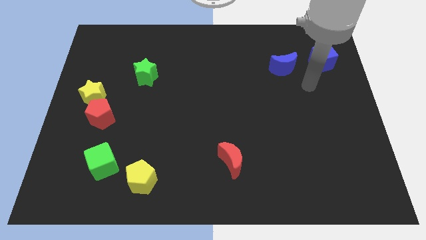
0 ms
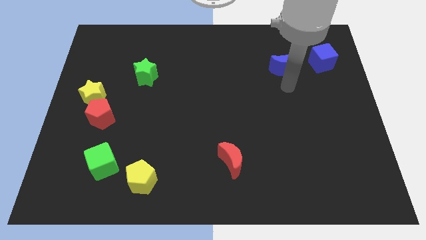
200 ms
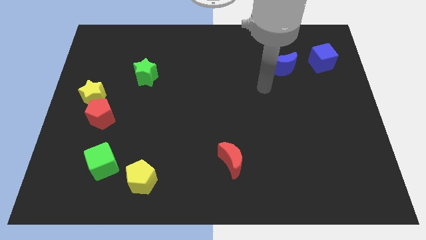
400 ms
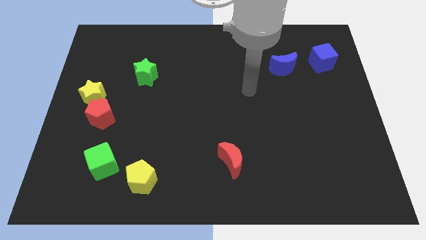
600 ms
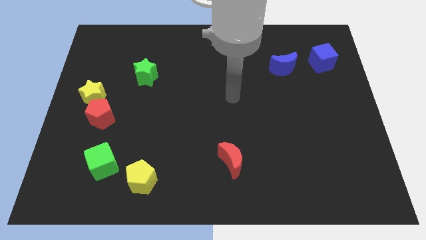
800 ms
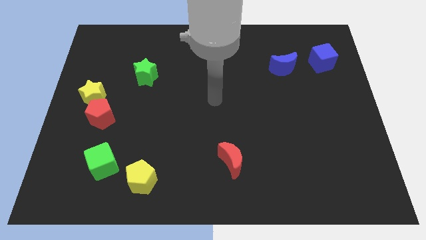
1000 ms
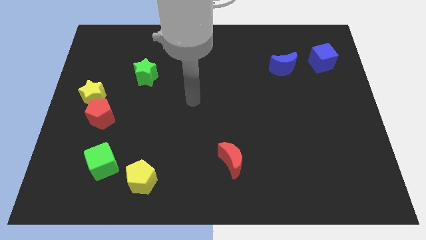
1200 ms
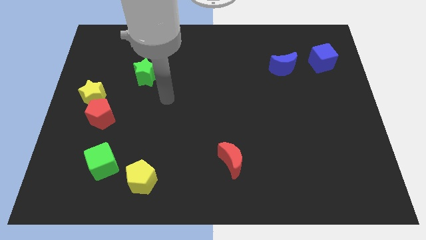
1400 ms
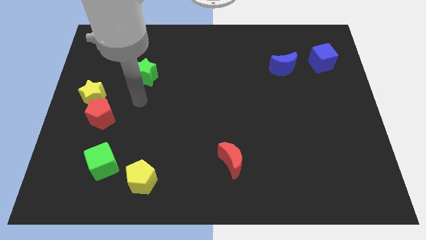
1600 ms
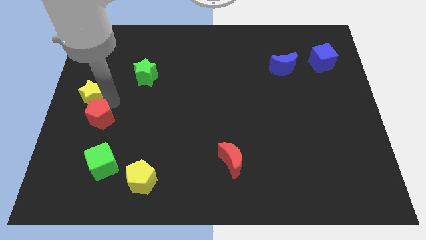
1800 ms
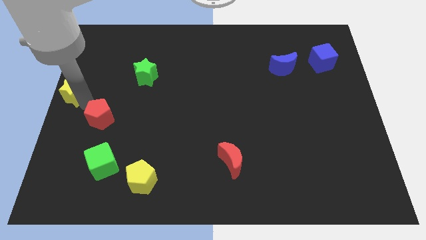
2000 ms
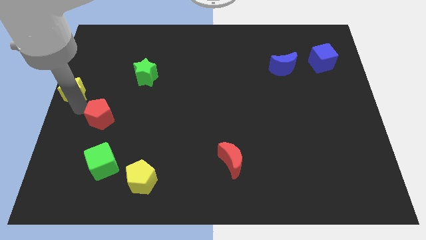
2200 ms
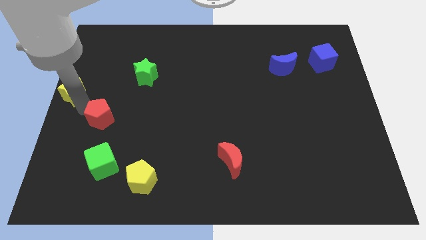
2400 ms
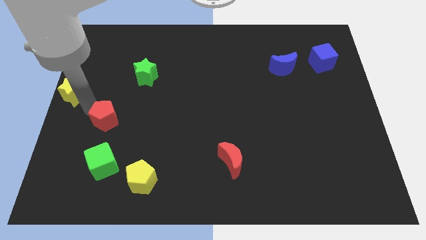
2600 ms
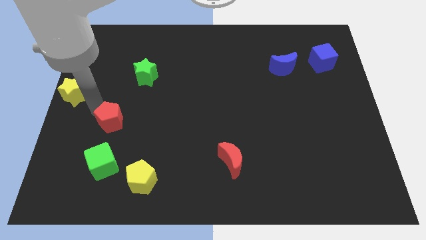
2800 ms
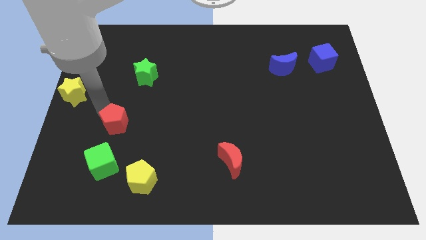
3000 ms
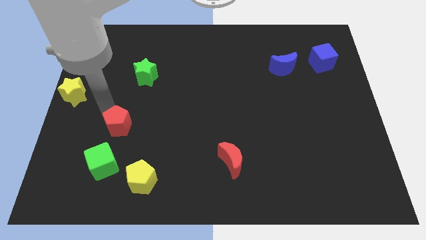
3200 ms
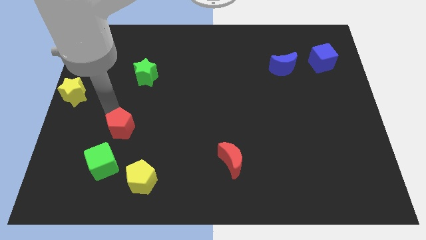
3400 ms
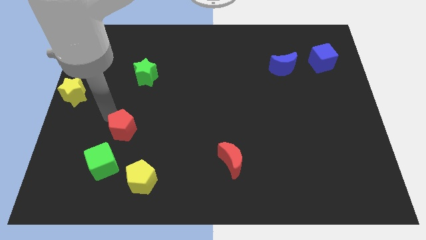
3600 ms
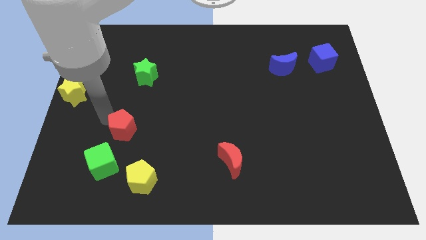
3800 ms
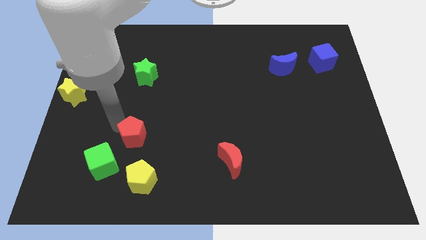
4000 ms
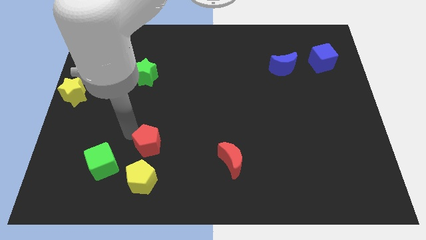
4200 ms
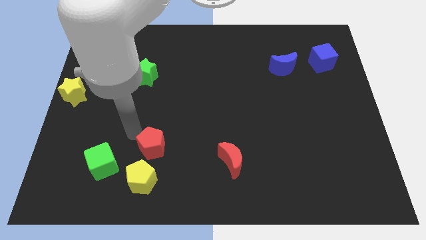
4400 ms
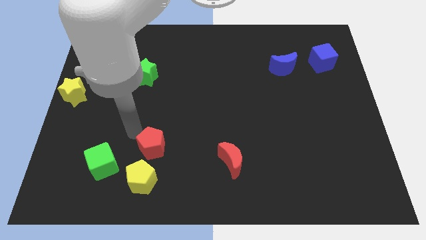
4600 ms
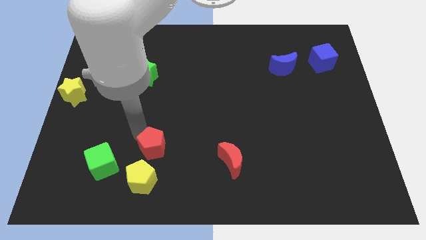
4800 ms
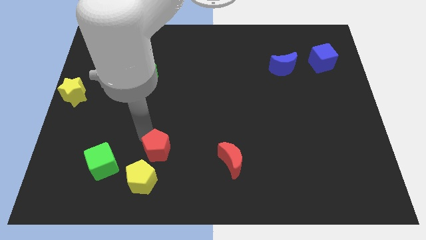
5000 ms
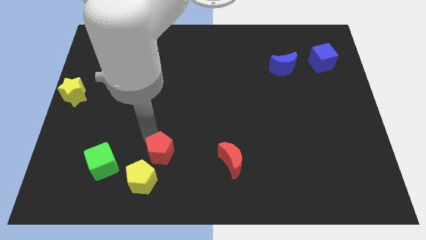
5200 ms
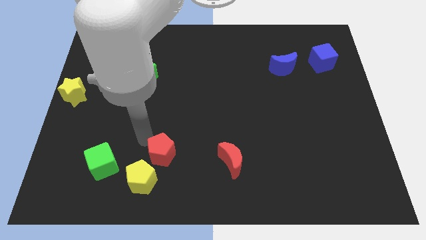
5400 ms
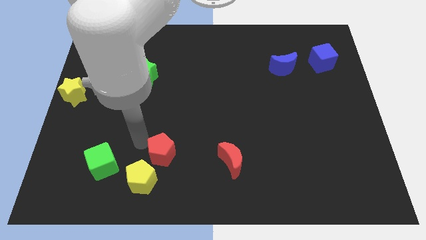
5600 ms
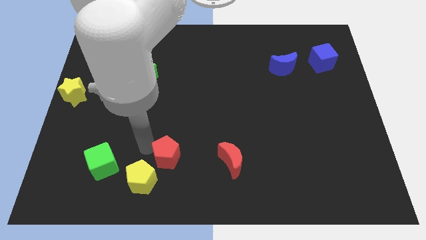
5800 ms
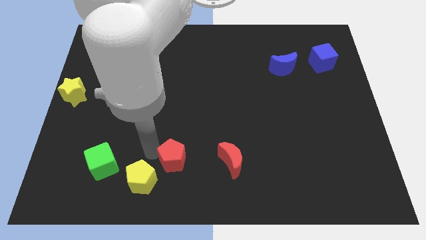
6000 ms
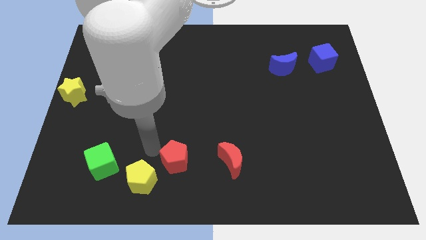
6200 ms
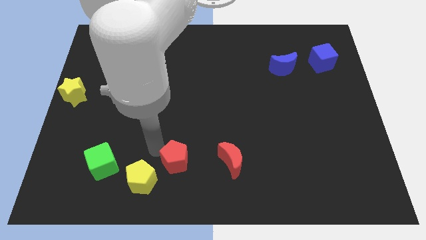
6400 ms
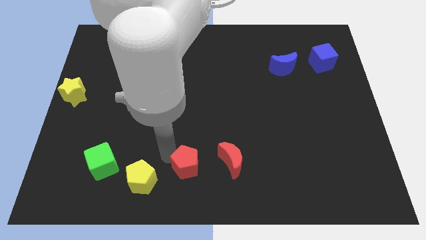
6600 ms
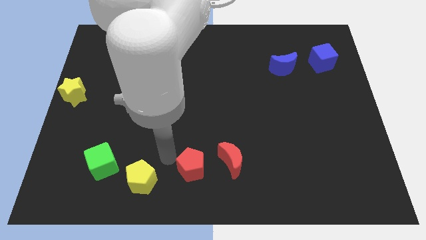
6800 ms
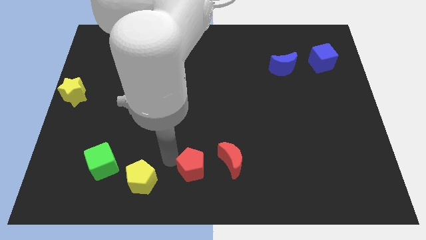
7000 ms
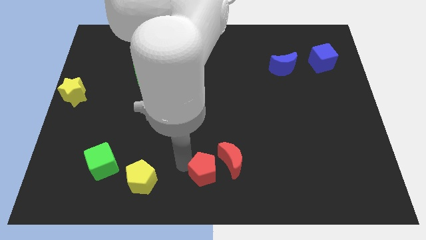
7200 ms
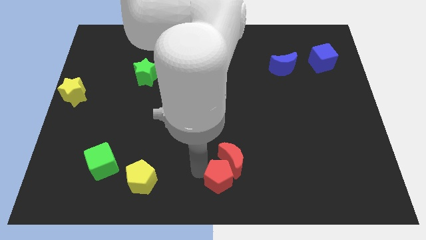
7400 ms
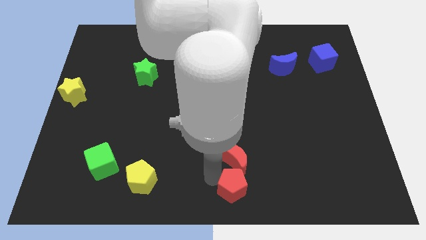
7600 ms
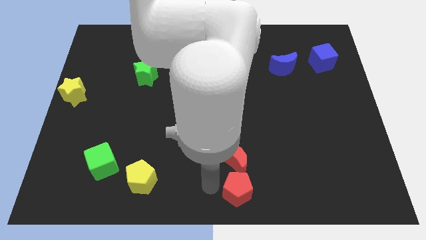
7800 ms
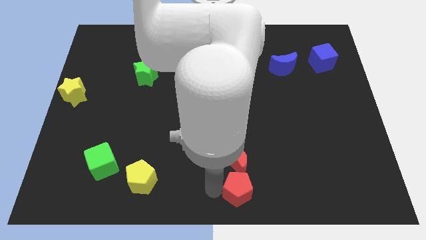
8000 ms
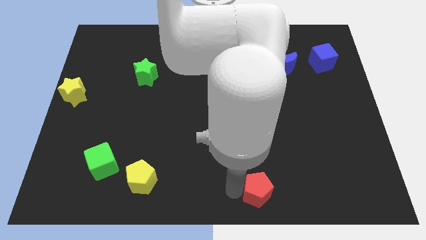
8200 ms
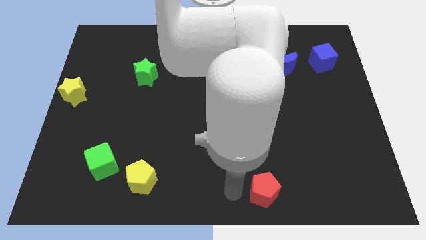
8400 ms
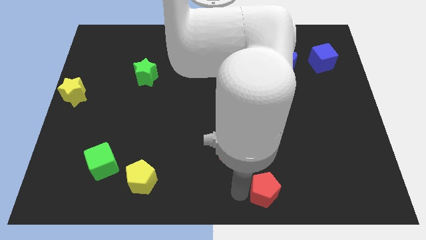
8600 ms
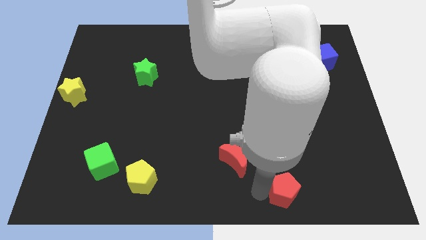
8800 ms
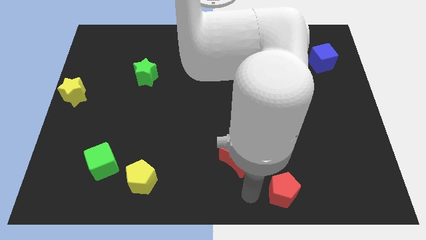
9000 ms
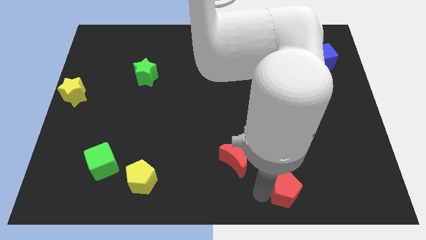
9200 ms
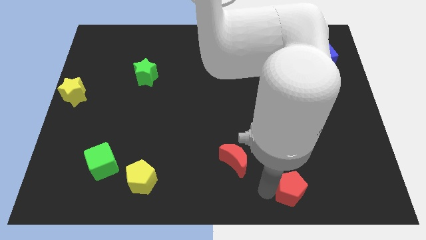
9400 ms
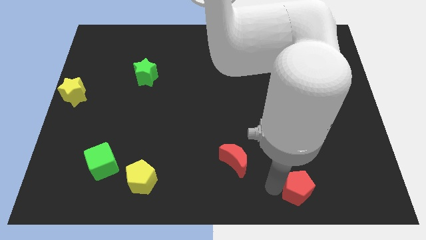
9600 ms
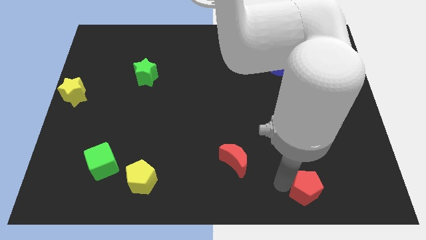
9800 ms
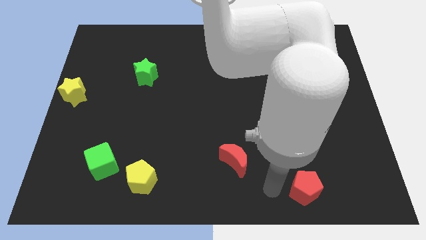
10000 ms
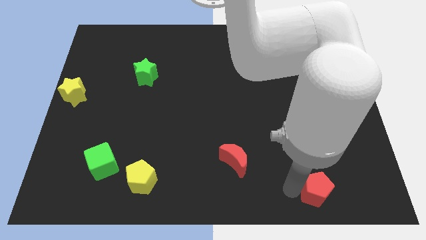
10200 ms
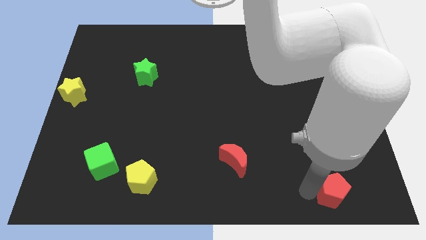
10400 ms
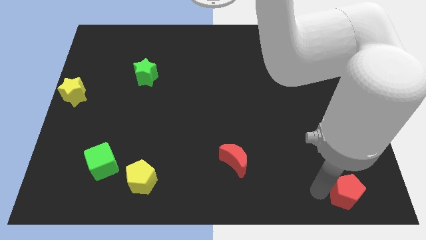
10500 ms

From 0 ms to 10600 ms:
slide the red pentagon to the bottom right corner

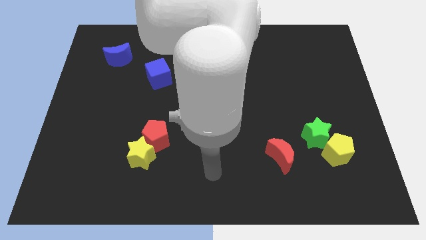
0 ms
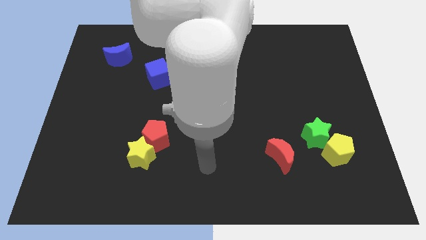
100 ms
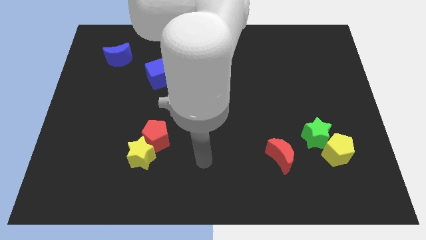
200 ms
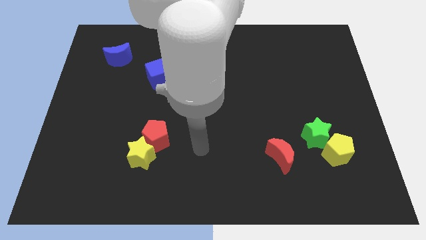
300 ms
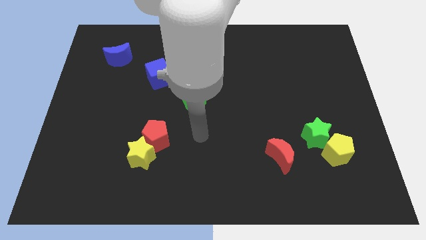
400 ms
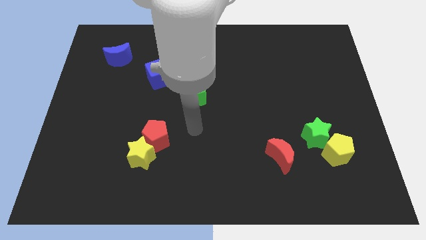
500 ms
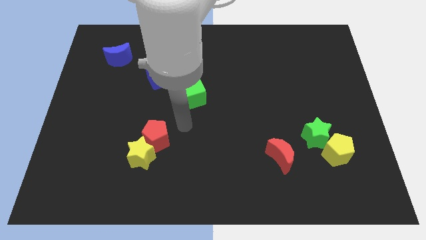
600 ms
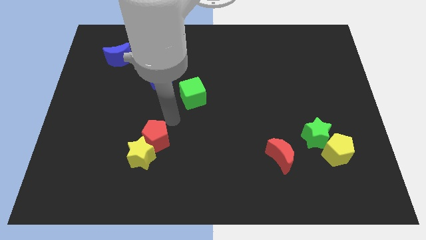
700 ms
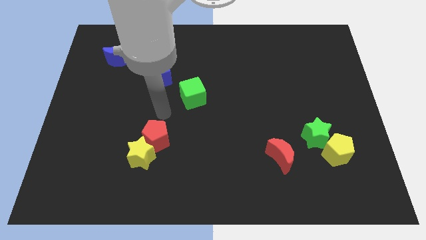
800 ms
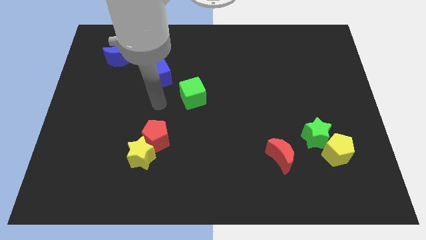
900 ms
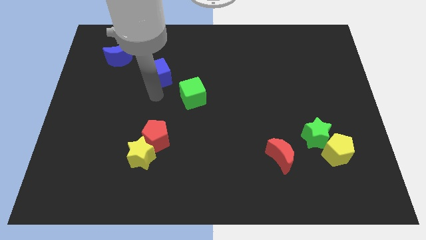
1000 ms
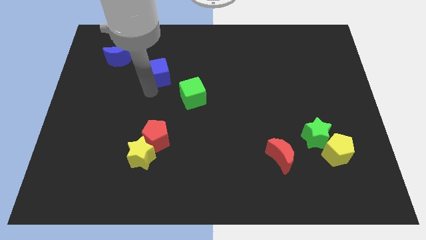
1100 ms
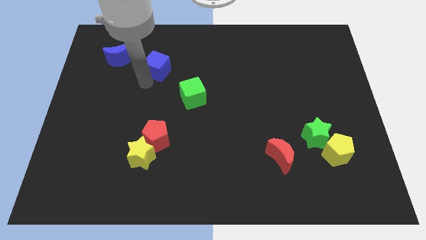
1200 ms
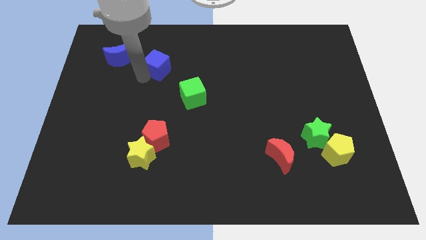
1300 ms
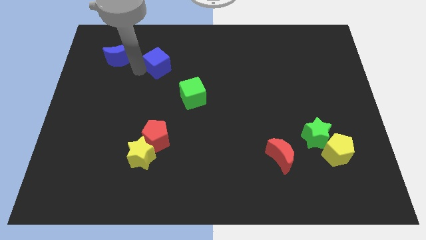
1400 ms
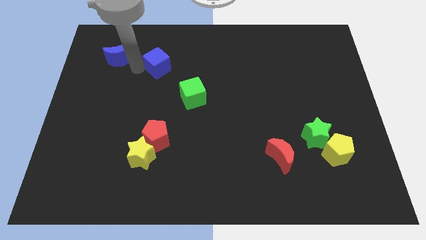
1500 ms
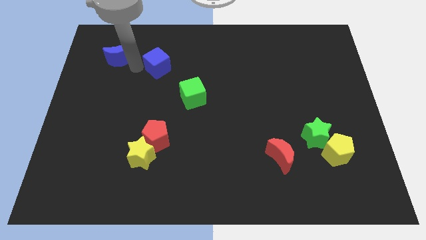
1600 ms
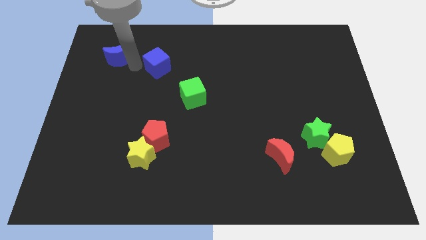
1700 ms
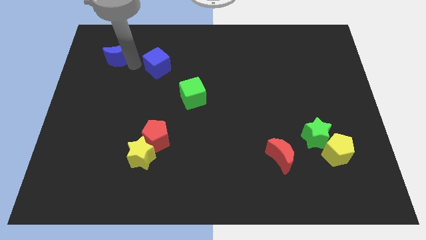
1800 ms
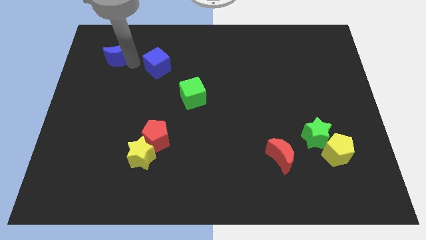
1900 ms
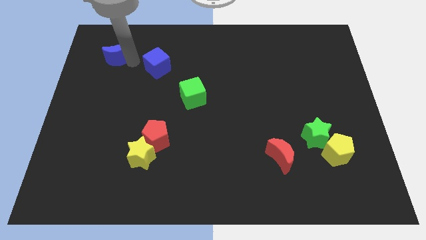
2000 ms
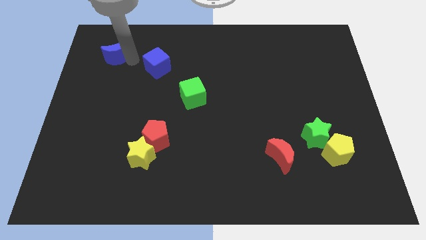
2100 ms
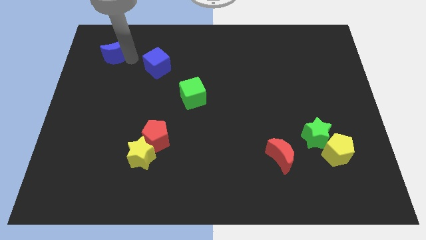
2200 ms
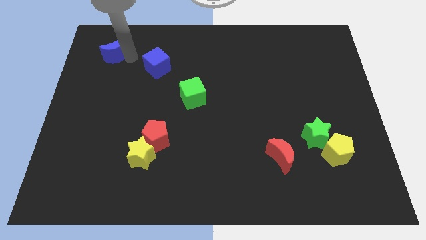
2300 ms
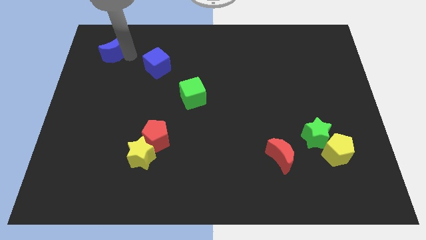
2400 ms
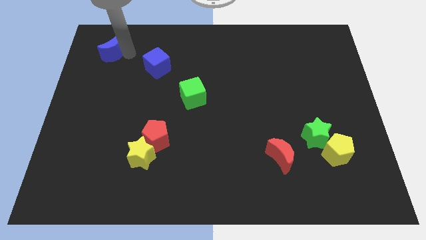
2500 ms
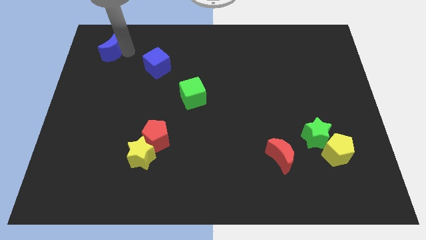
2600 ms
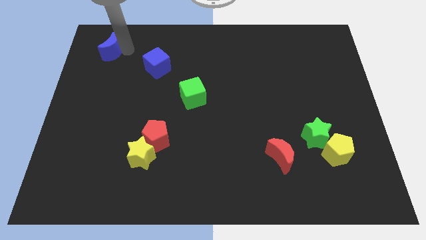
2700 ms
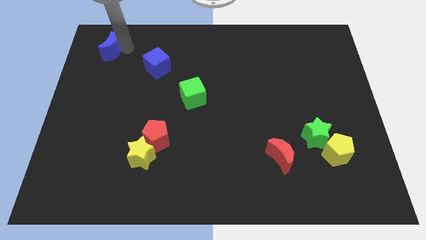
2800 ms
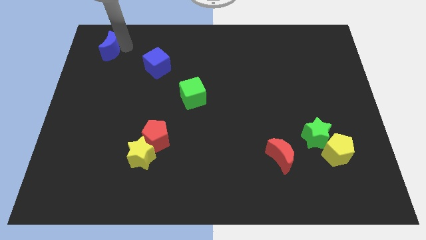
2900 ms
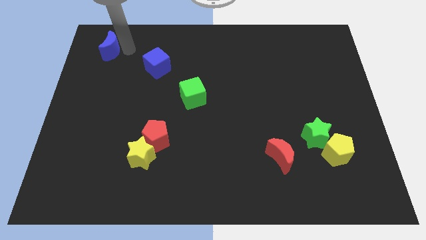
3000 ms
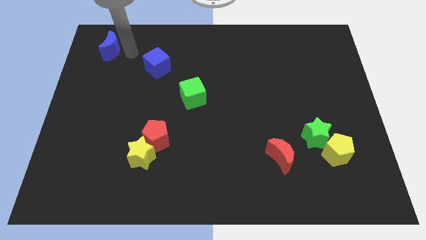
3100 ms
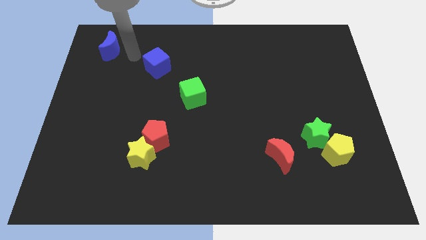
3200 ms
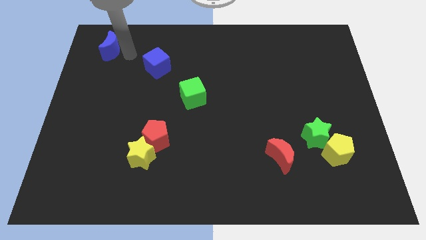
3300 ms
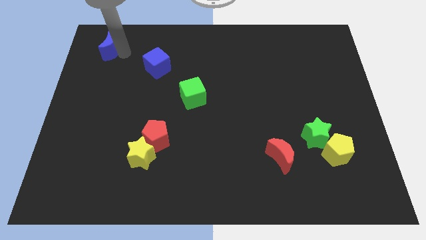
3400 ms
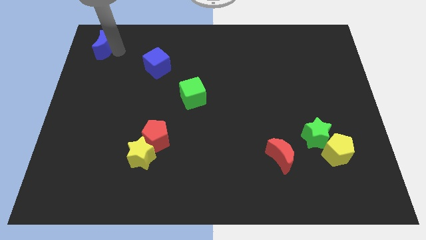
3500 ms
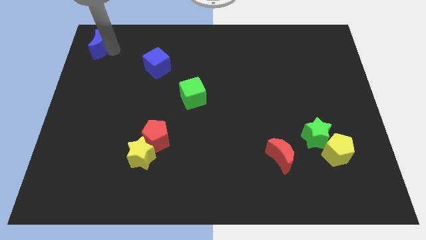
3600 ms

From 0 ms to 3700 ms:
move the blue moon to the top left
